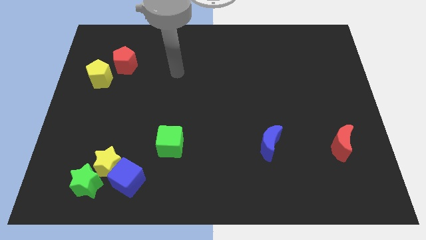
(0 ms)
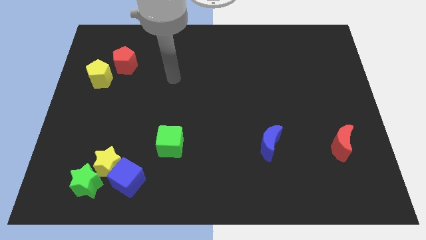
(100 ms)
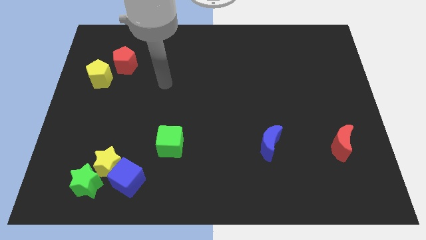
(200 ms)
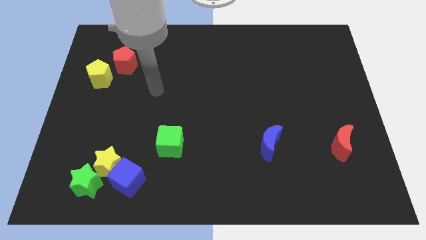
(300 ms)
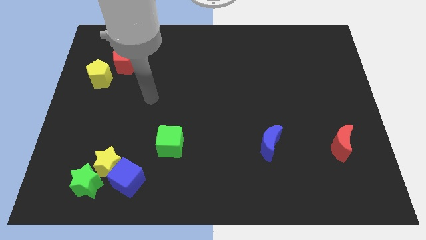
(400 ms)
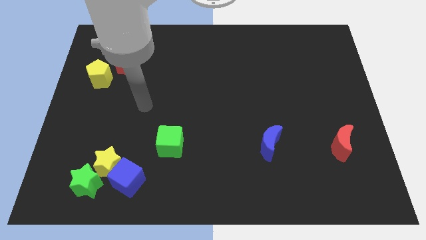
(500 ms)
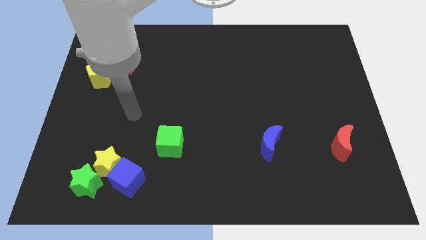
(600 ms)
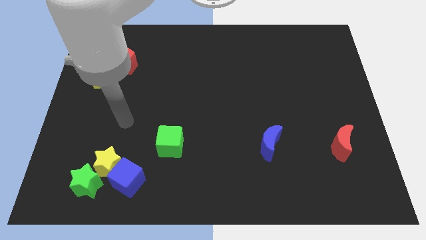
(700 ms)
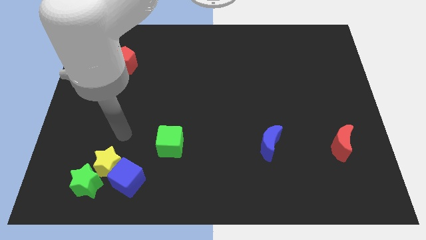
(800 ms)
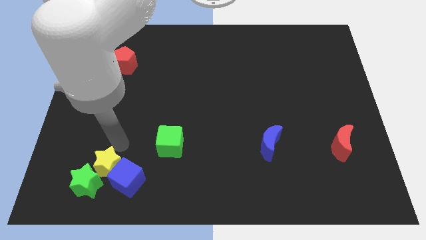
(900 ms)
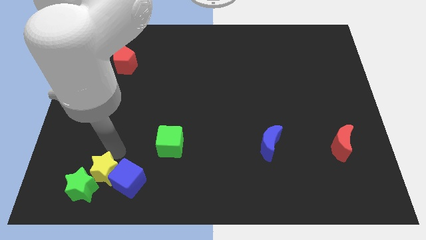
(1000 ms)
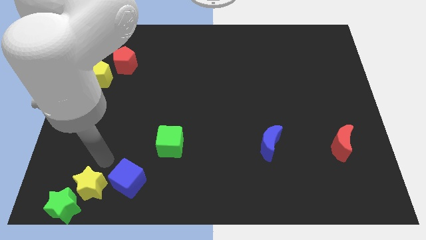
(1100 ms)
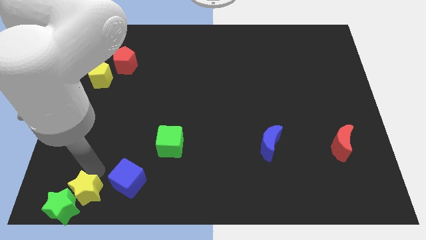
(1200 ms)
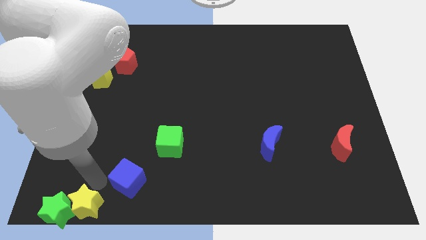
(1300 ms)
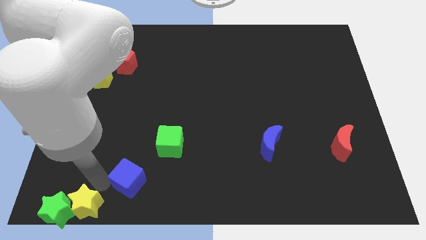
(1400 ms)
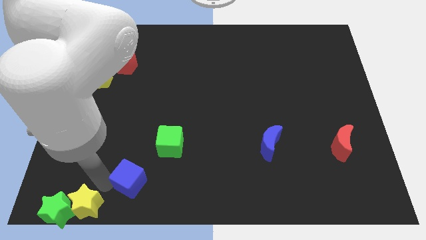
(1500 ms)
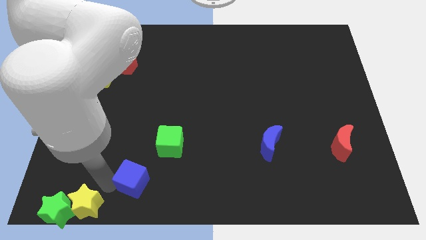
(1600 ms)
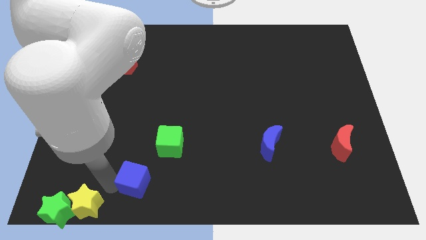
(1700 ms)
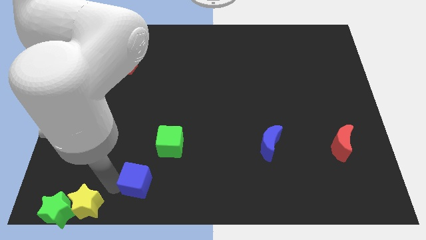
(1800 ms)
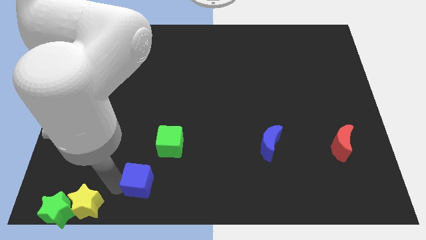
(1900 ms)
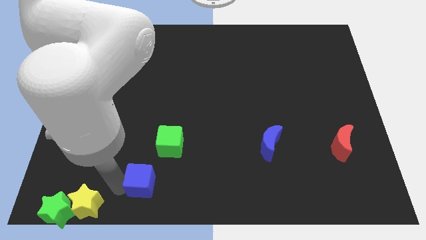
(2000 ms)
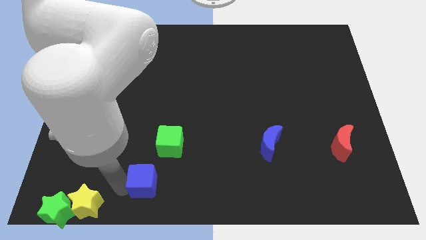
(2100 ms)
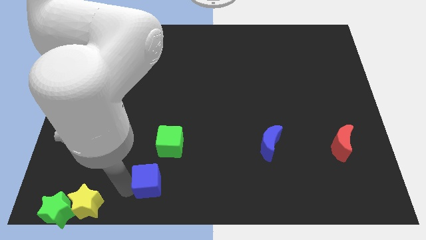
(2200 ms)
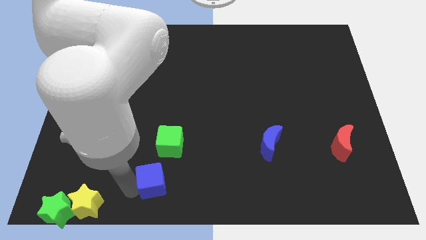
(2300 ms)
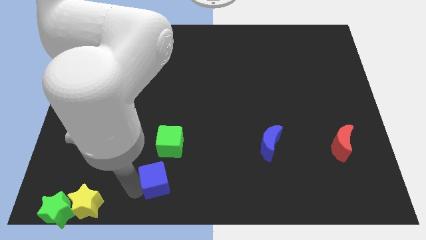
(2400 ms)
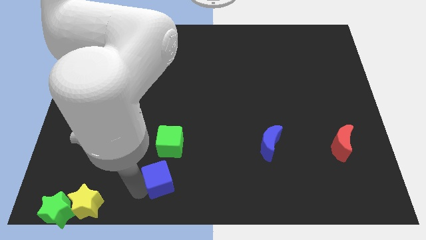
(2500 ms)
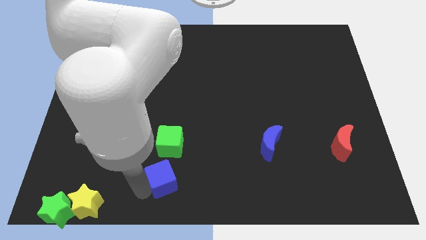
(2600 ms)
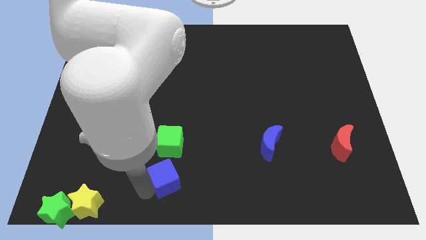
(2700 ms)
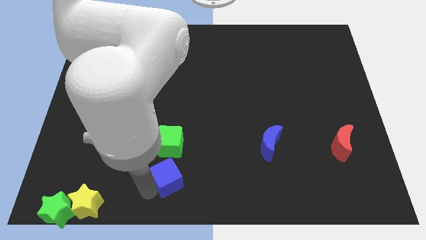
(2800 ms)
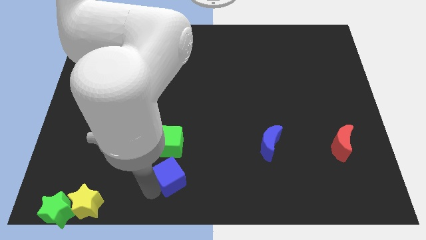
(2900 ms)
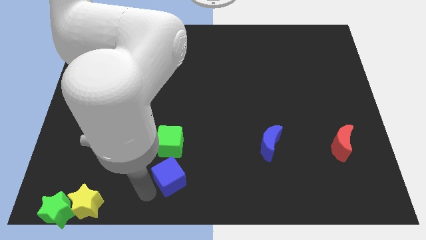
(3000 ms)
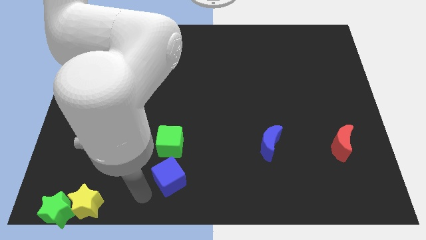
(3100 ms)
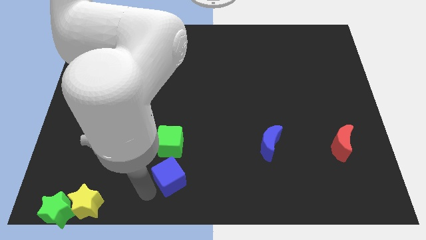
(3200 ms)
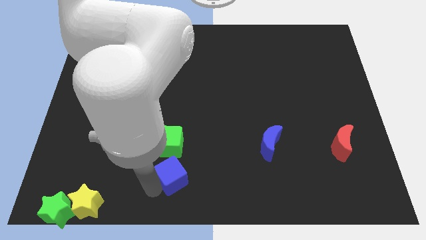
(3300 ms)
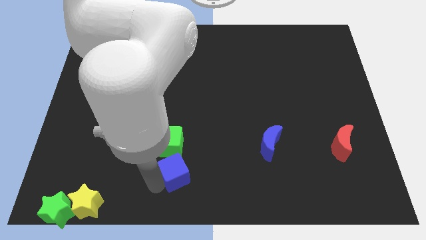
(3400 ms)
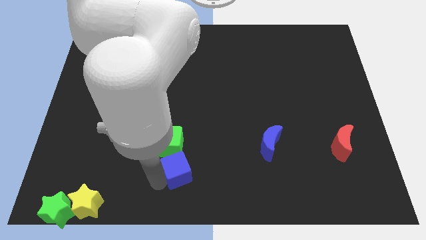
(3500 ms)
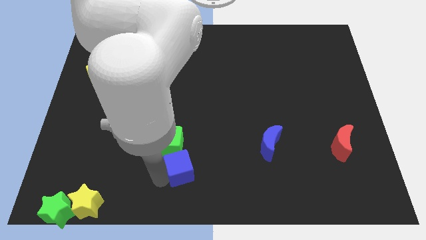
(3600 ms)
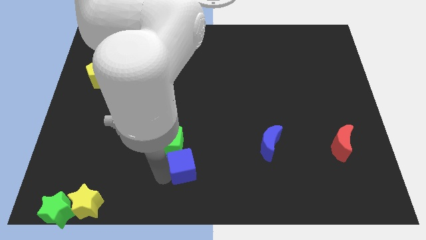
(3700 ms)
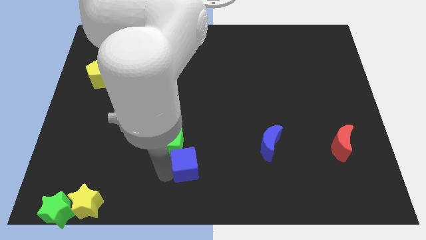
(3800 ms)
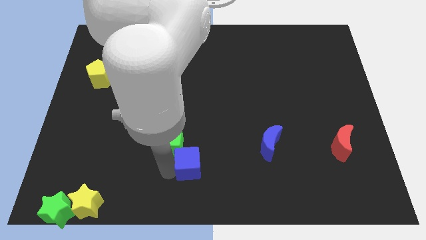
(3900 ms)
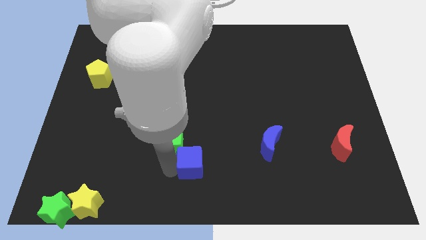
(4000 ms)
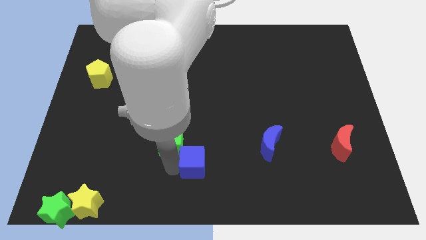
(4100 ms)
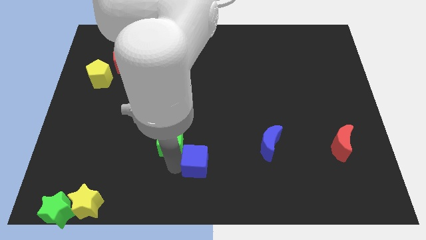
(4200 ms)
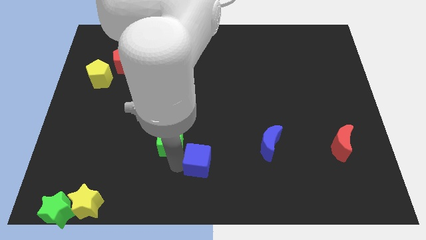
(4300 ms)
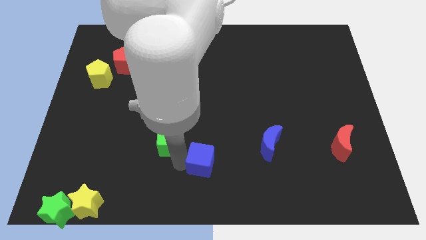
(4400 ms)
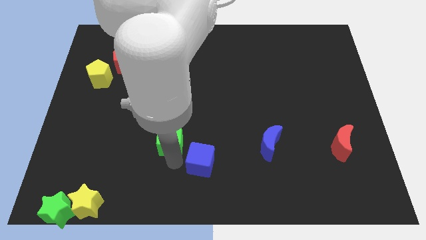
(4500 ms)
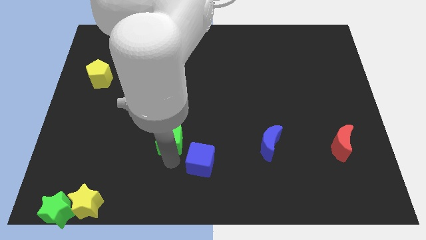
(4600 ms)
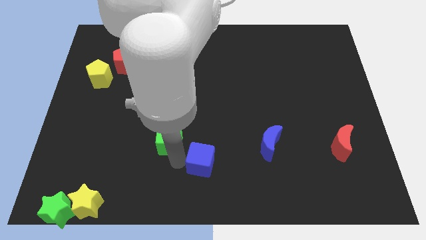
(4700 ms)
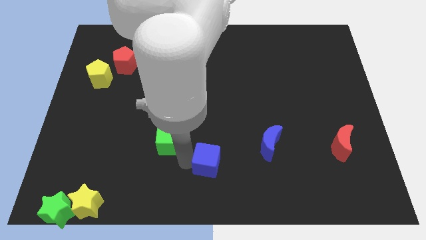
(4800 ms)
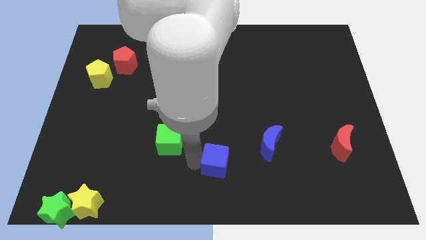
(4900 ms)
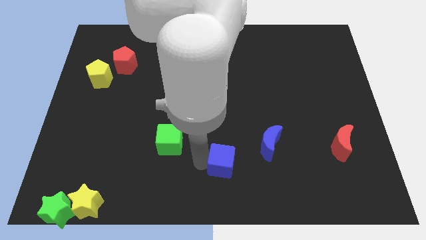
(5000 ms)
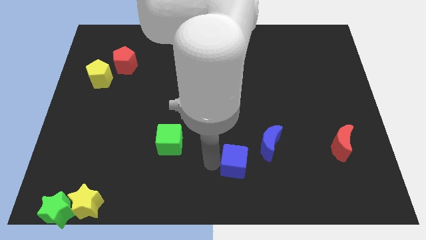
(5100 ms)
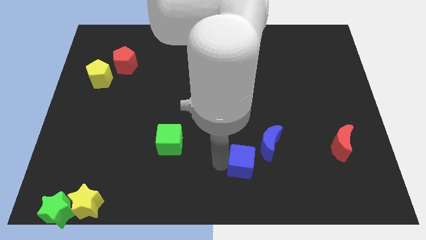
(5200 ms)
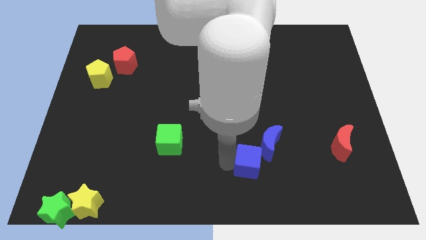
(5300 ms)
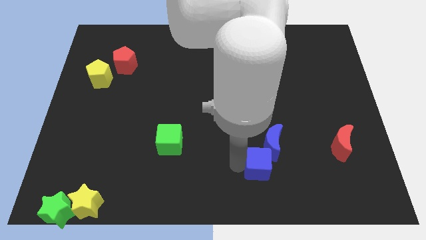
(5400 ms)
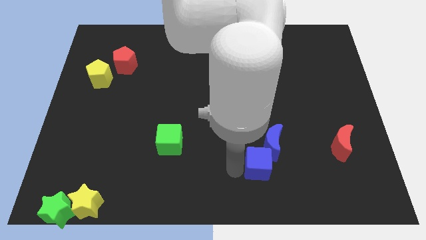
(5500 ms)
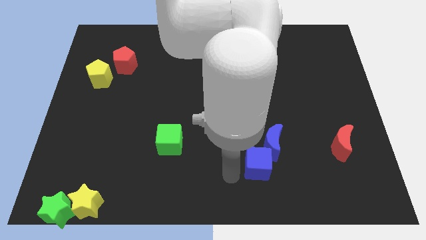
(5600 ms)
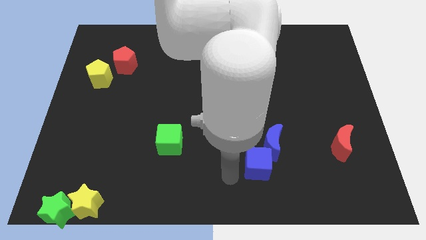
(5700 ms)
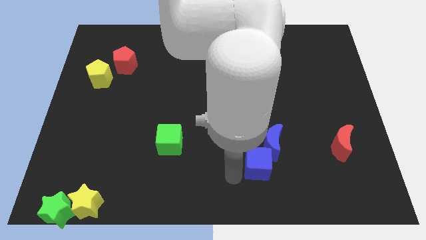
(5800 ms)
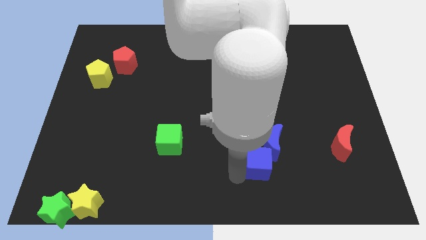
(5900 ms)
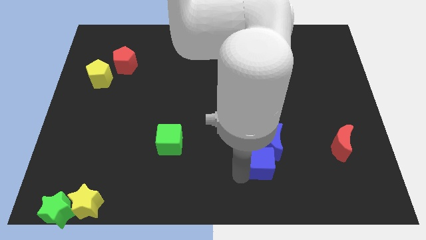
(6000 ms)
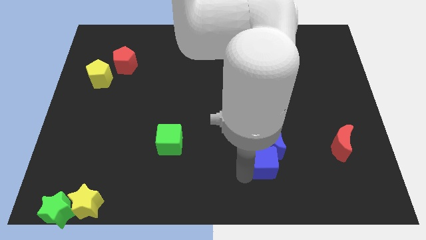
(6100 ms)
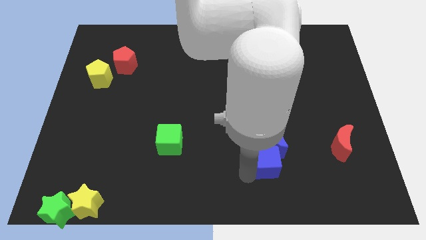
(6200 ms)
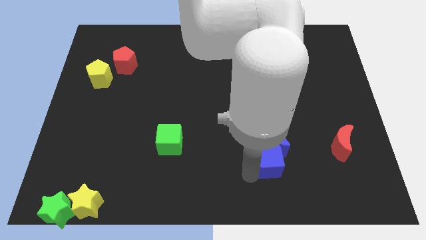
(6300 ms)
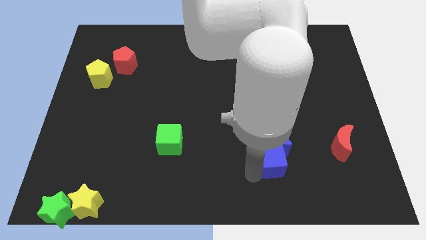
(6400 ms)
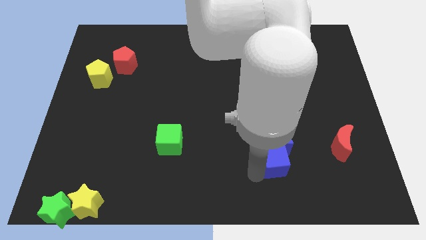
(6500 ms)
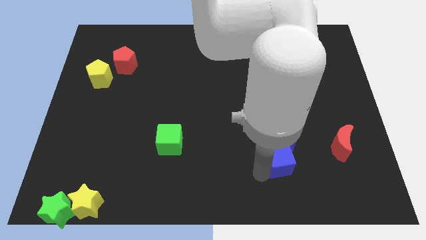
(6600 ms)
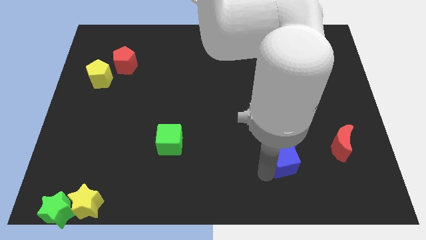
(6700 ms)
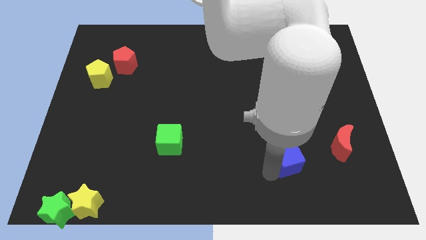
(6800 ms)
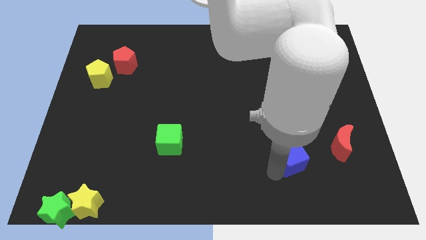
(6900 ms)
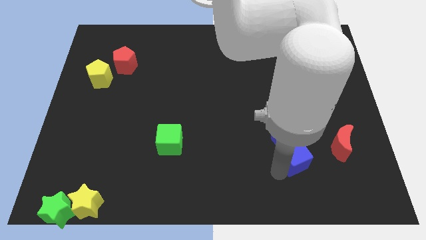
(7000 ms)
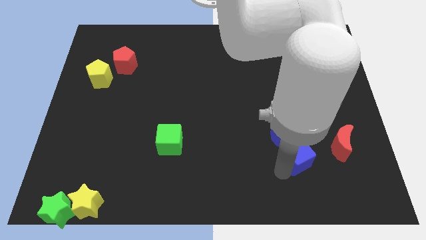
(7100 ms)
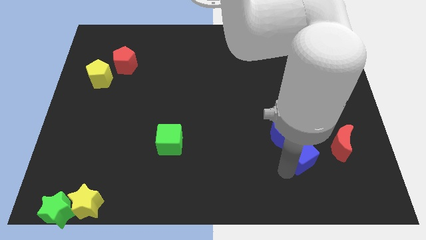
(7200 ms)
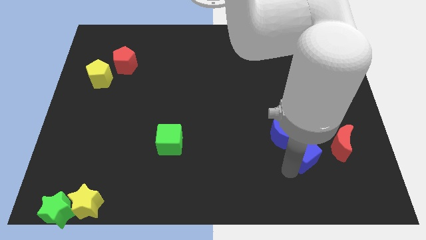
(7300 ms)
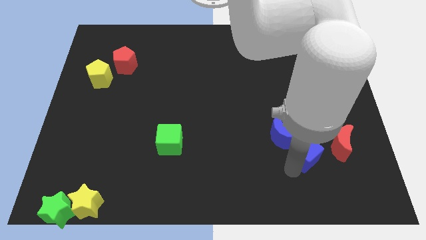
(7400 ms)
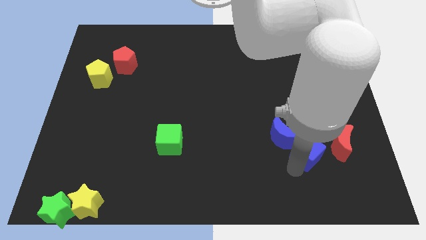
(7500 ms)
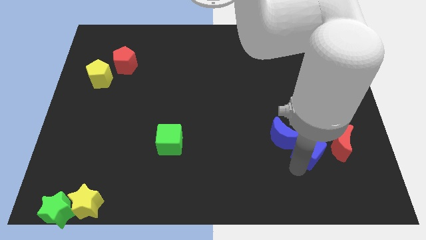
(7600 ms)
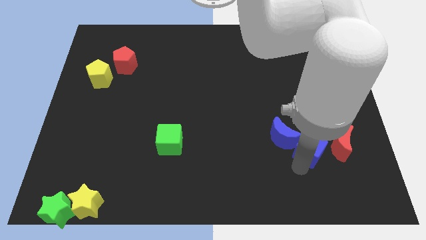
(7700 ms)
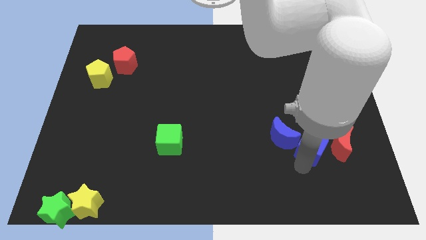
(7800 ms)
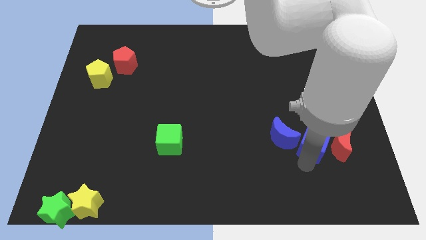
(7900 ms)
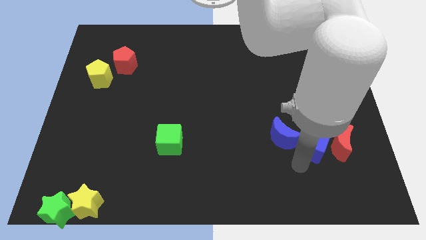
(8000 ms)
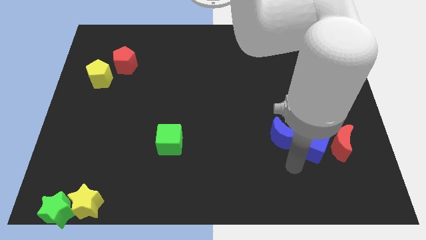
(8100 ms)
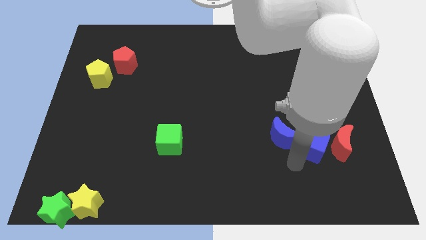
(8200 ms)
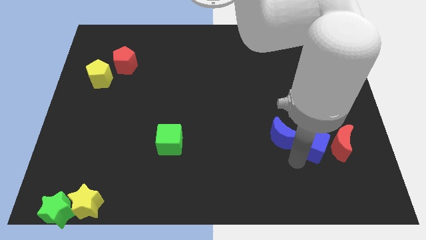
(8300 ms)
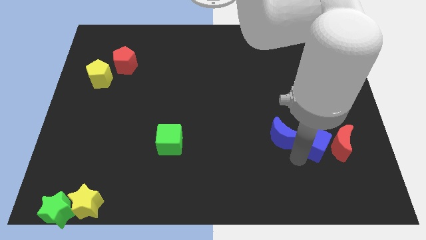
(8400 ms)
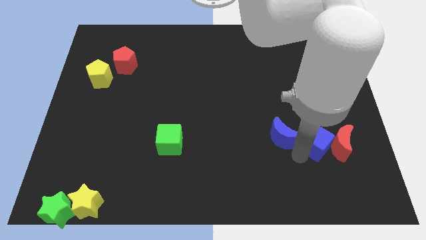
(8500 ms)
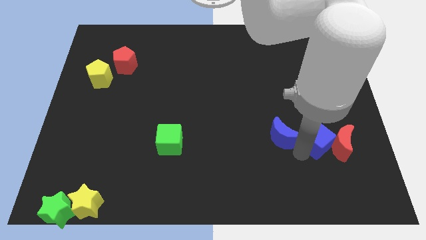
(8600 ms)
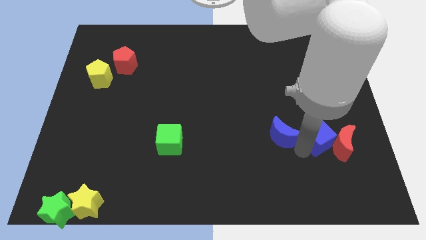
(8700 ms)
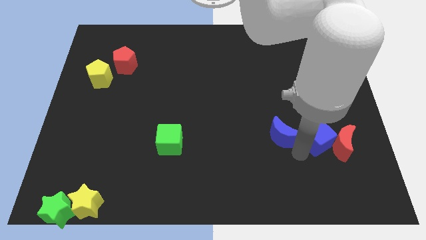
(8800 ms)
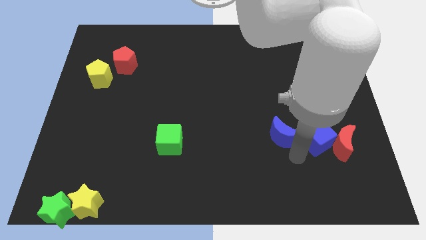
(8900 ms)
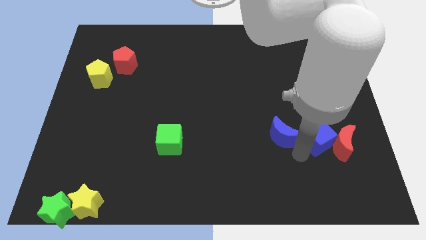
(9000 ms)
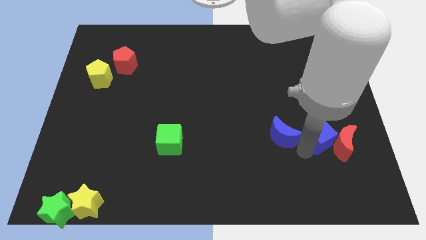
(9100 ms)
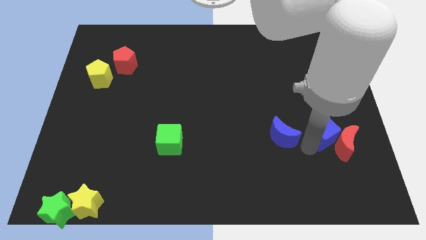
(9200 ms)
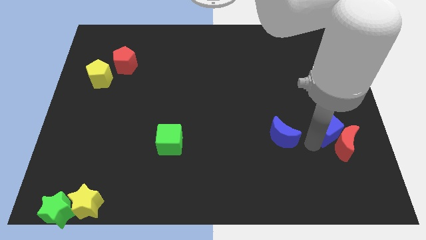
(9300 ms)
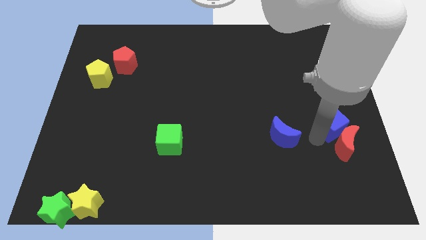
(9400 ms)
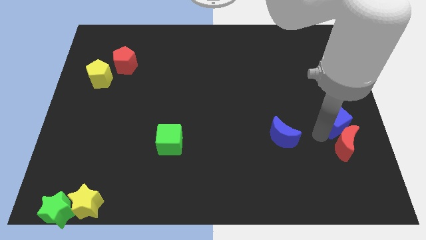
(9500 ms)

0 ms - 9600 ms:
put the blue cube to the right side
